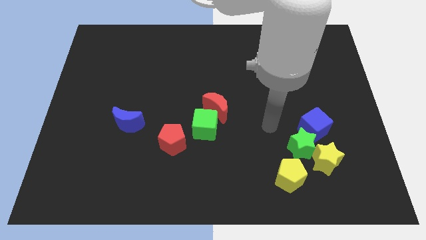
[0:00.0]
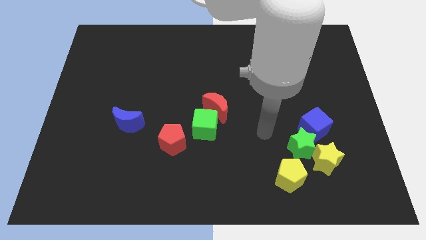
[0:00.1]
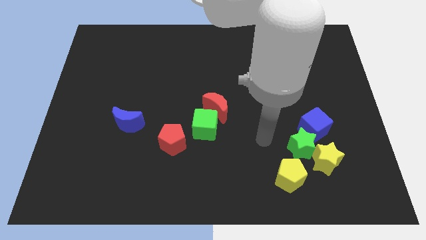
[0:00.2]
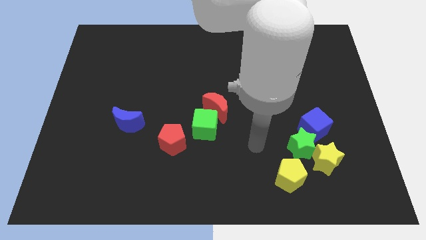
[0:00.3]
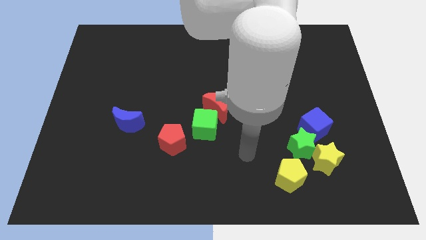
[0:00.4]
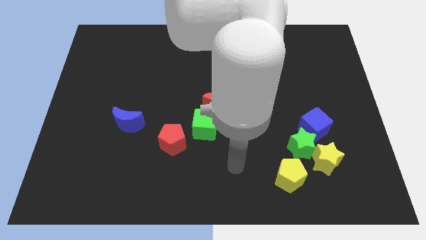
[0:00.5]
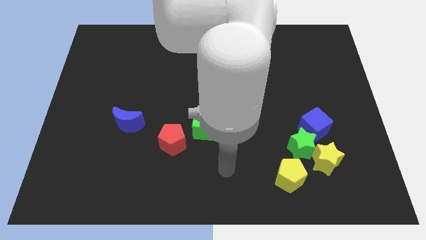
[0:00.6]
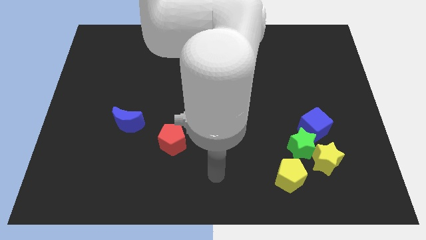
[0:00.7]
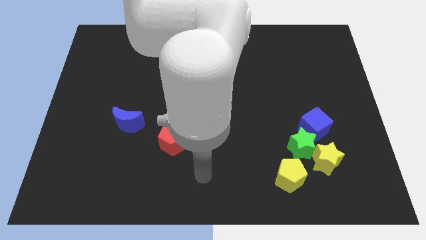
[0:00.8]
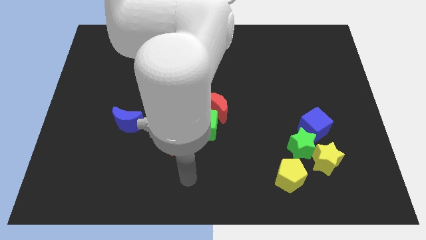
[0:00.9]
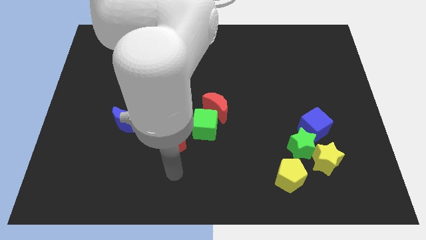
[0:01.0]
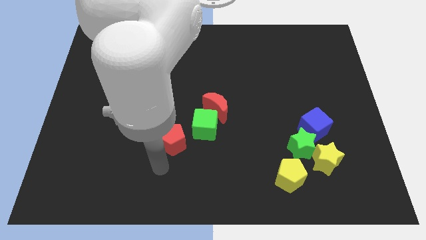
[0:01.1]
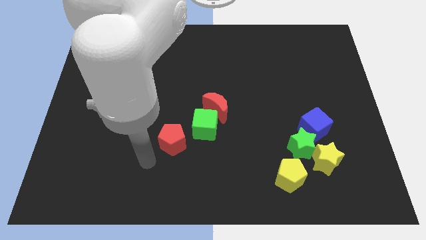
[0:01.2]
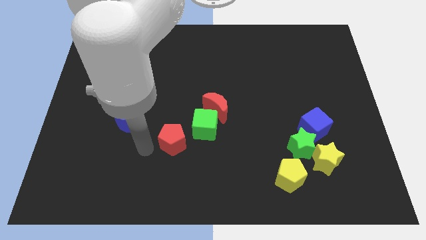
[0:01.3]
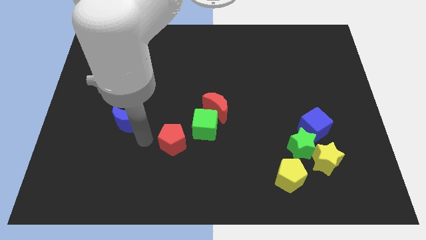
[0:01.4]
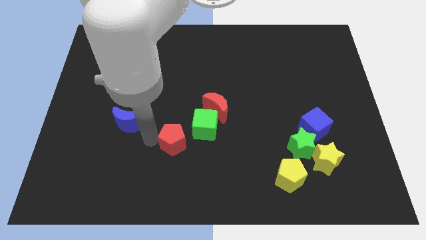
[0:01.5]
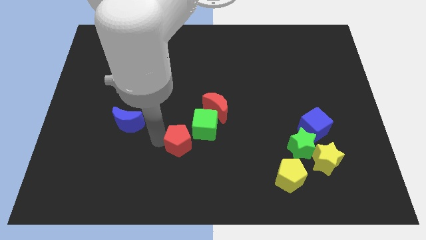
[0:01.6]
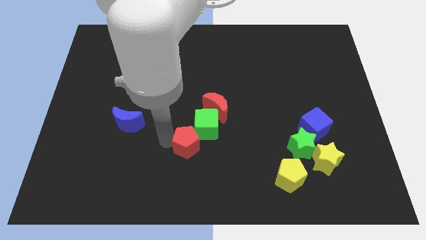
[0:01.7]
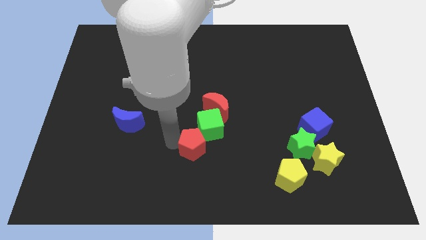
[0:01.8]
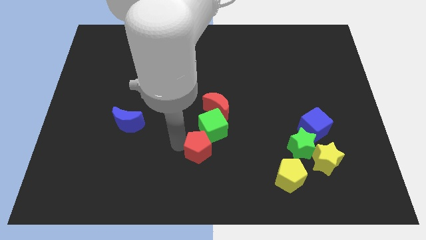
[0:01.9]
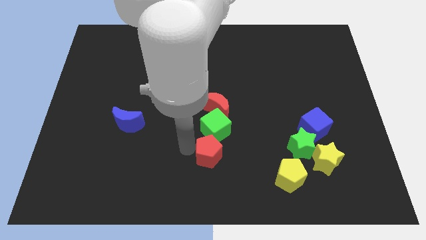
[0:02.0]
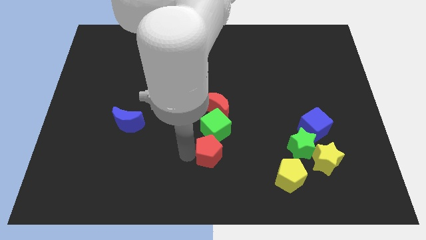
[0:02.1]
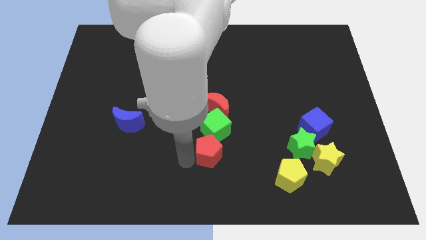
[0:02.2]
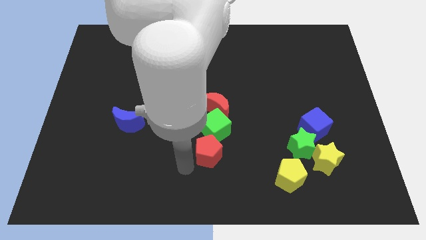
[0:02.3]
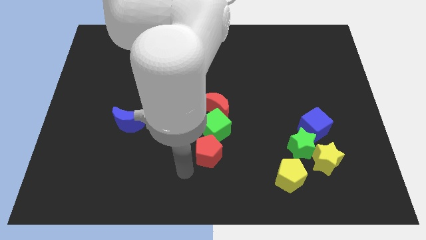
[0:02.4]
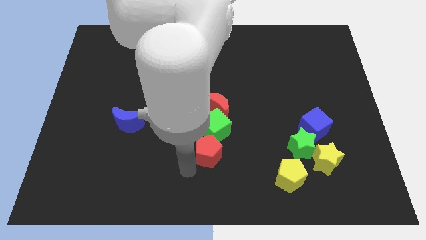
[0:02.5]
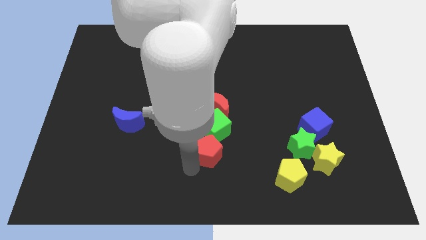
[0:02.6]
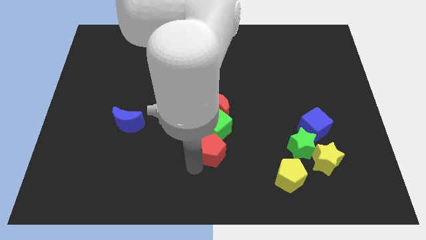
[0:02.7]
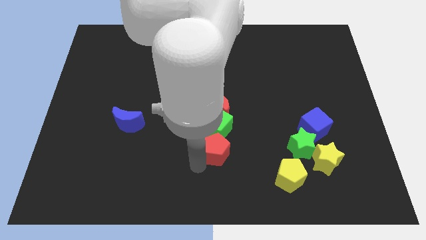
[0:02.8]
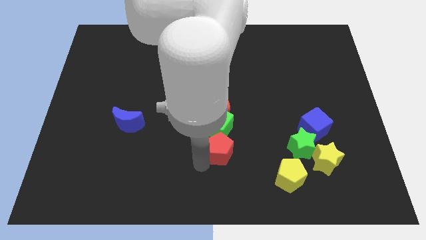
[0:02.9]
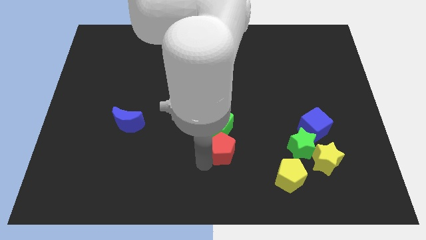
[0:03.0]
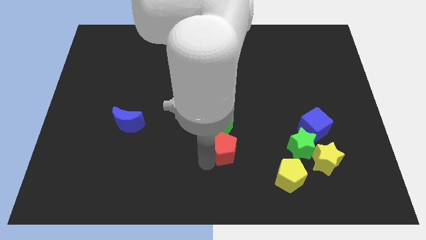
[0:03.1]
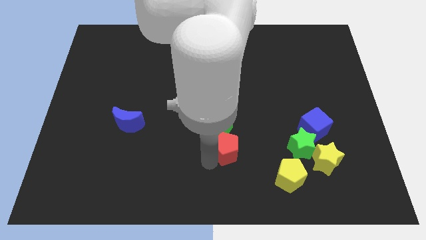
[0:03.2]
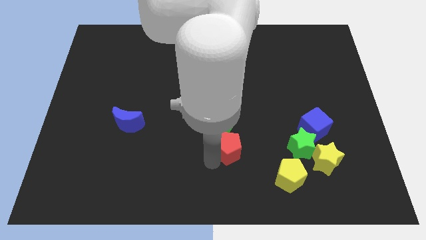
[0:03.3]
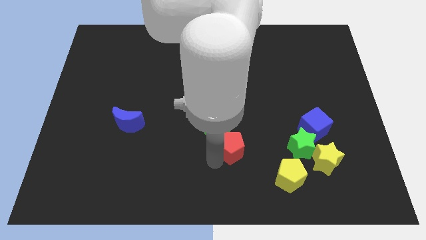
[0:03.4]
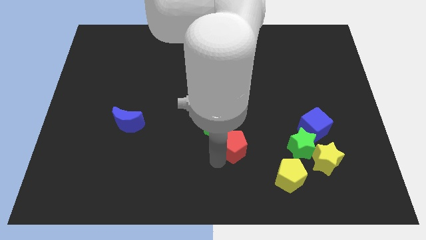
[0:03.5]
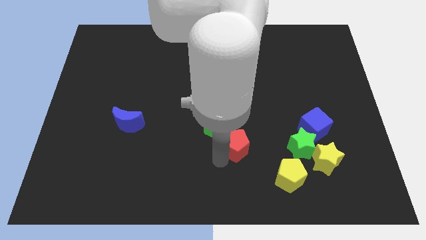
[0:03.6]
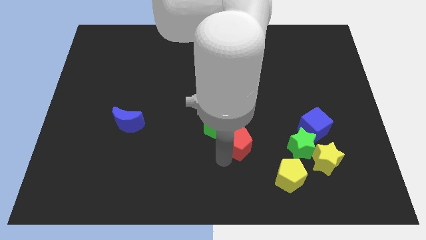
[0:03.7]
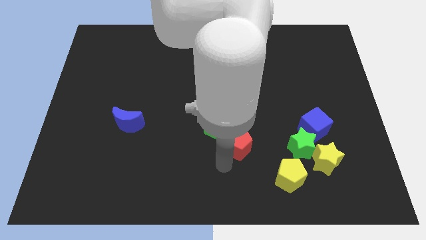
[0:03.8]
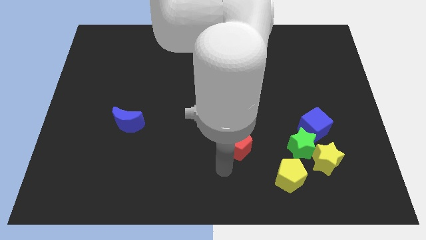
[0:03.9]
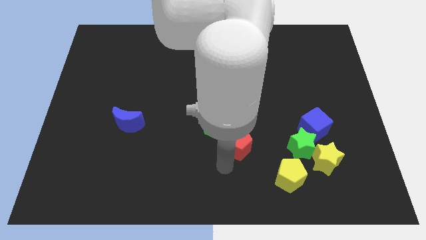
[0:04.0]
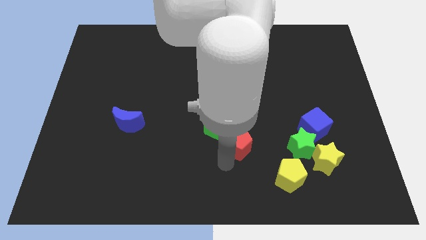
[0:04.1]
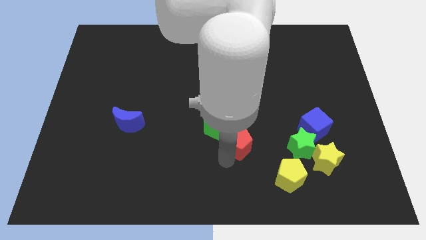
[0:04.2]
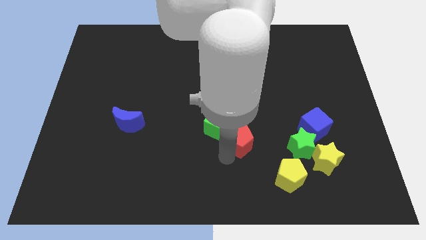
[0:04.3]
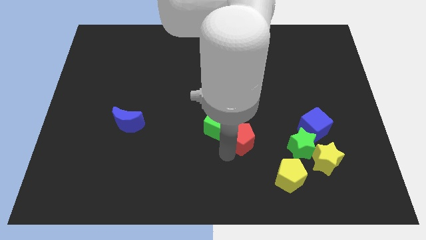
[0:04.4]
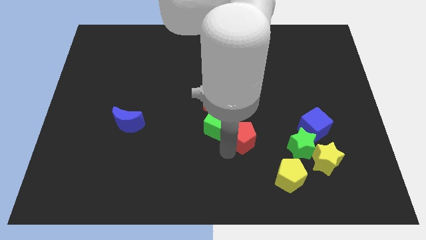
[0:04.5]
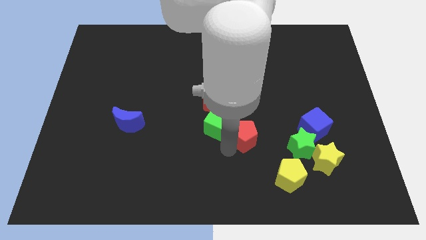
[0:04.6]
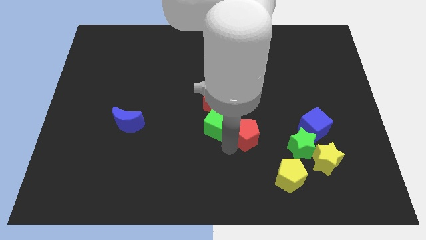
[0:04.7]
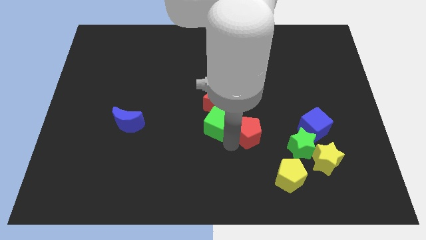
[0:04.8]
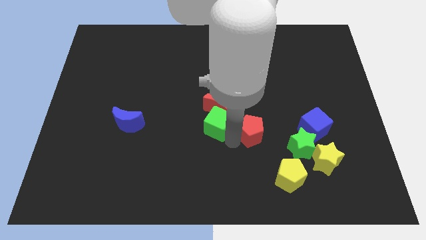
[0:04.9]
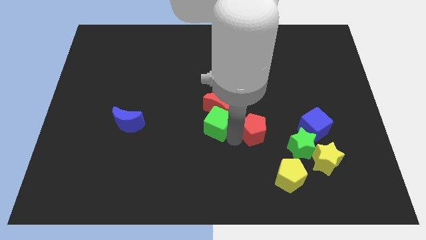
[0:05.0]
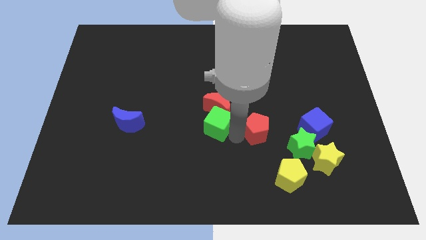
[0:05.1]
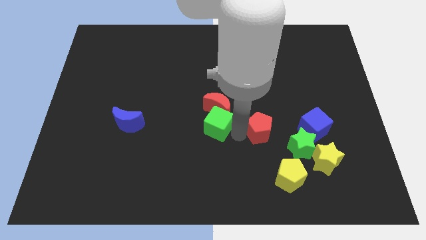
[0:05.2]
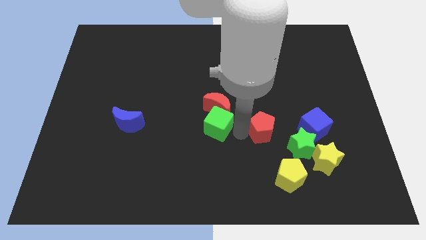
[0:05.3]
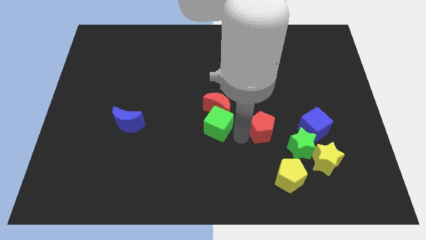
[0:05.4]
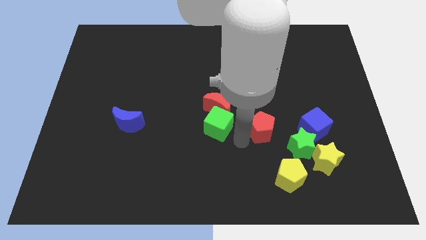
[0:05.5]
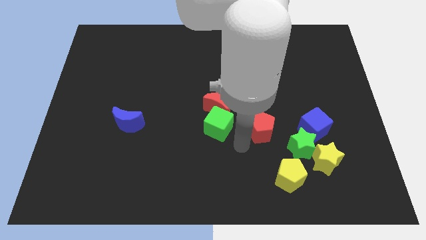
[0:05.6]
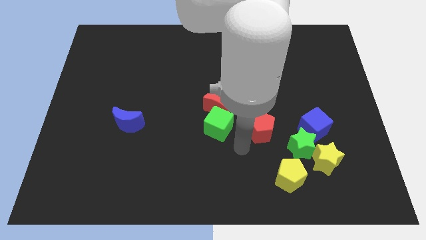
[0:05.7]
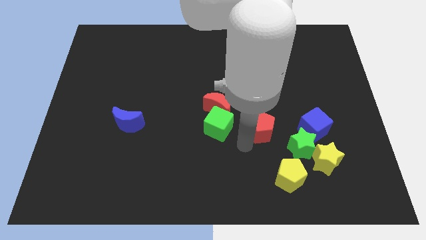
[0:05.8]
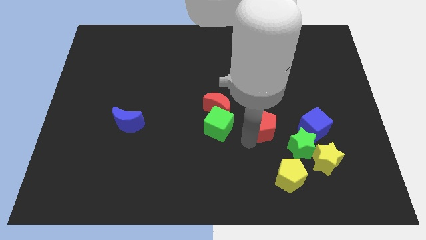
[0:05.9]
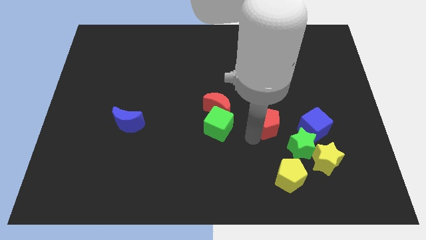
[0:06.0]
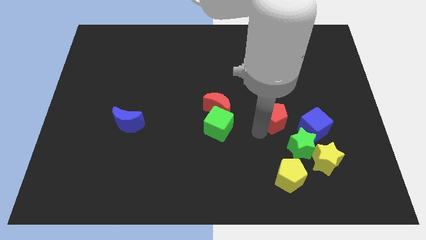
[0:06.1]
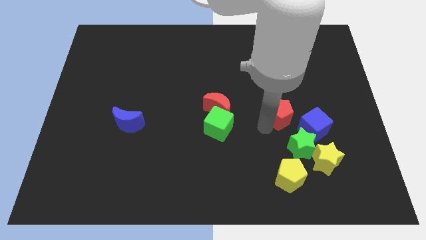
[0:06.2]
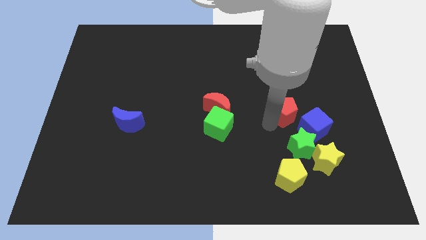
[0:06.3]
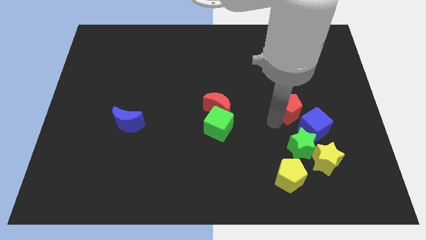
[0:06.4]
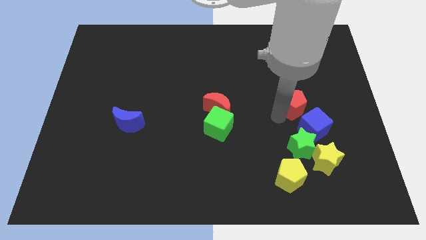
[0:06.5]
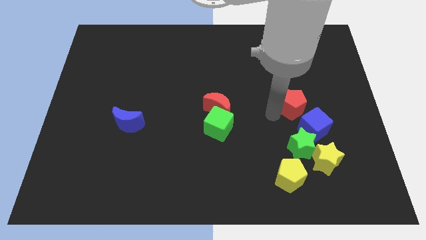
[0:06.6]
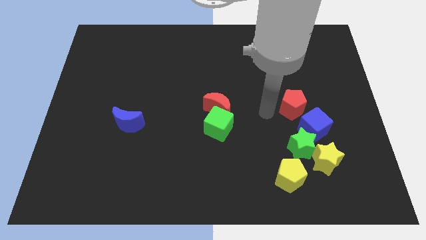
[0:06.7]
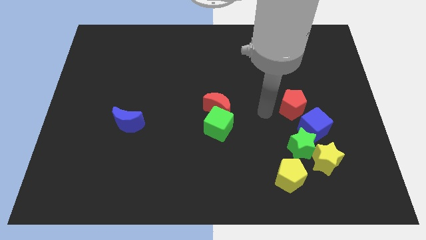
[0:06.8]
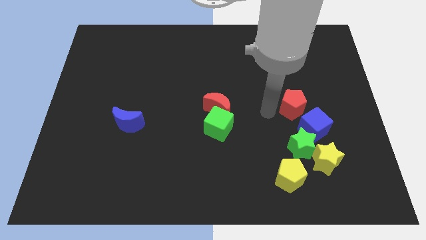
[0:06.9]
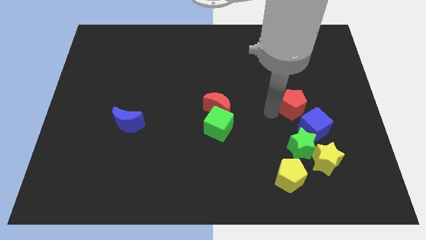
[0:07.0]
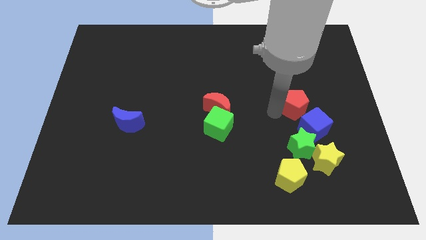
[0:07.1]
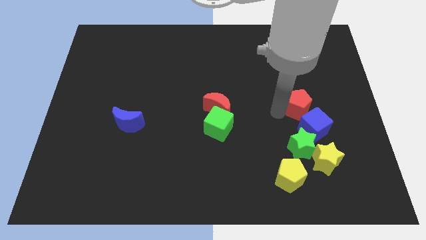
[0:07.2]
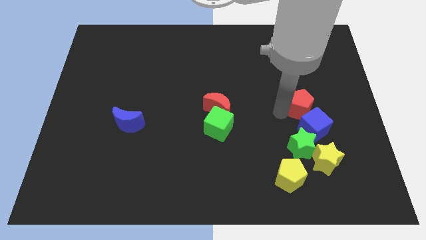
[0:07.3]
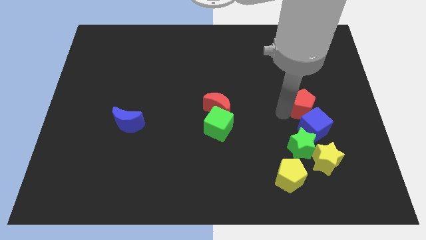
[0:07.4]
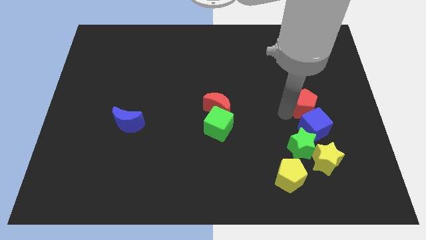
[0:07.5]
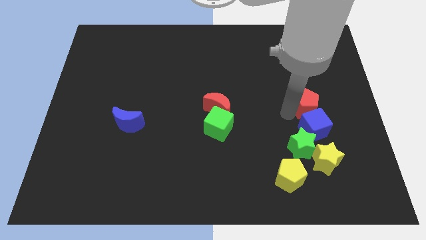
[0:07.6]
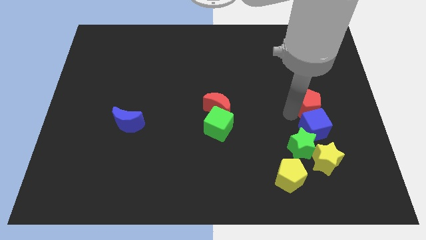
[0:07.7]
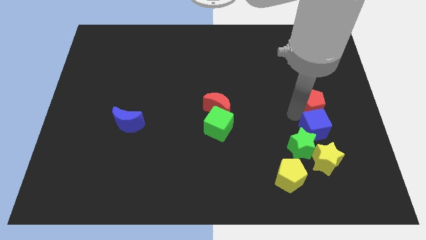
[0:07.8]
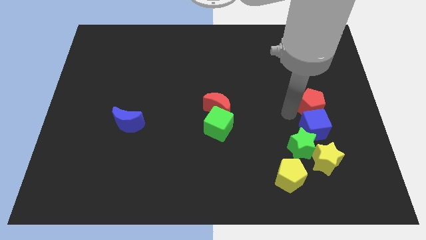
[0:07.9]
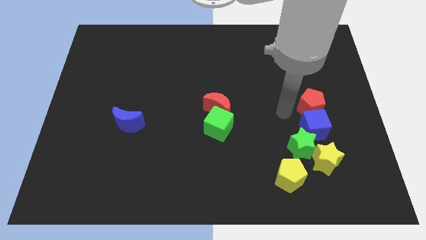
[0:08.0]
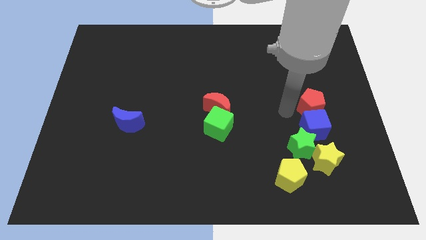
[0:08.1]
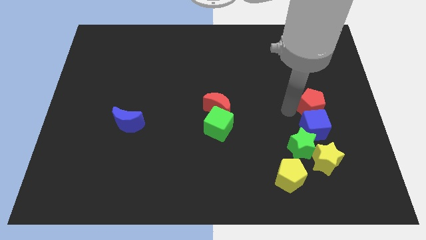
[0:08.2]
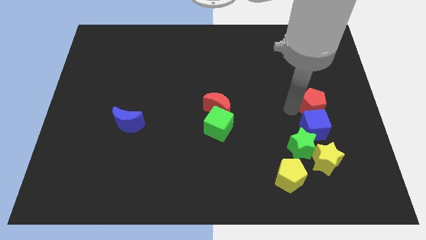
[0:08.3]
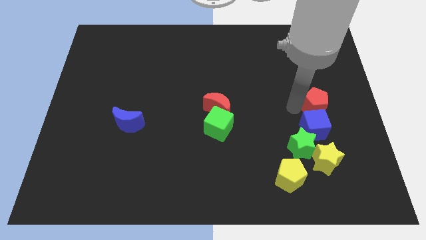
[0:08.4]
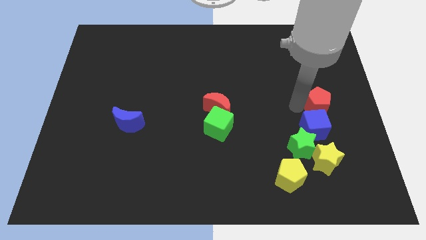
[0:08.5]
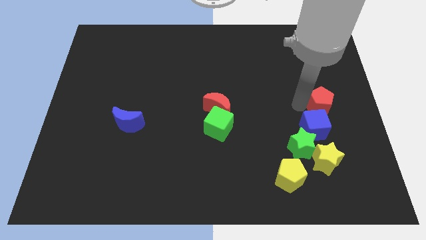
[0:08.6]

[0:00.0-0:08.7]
slide the red pentagon to the right side of the board
